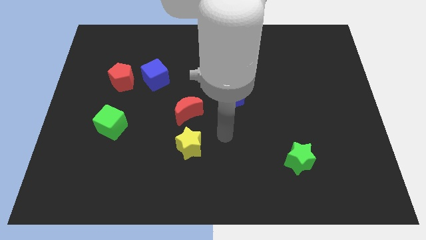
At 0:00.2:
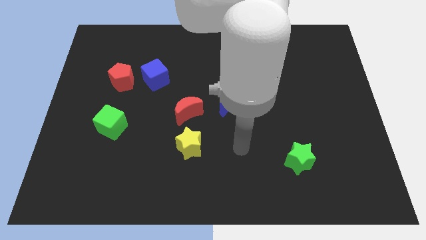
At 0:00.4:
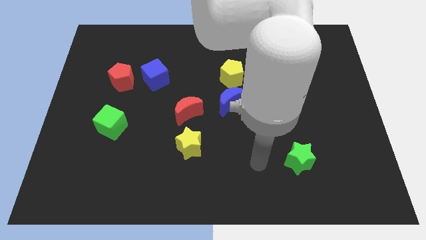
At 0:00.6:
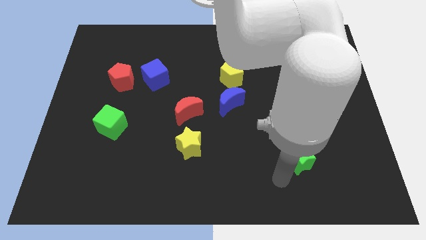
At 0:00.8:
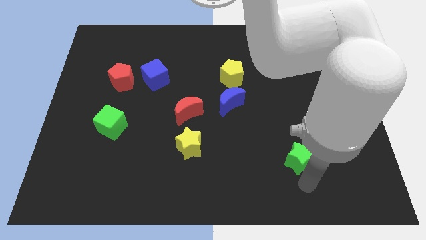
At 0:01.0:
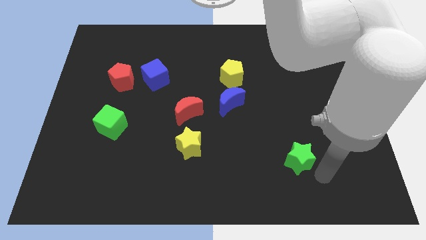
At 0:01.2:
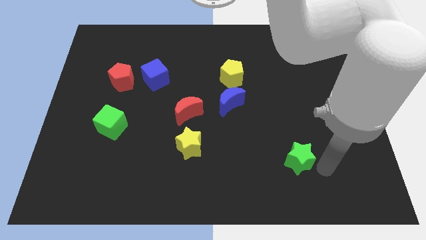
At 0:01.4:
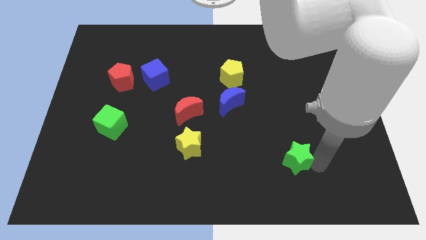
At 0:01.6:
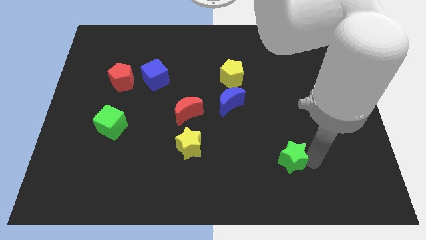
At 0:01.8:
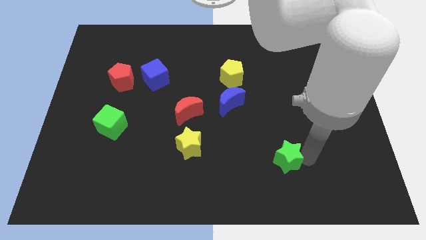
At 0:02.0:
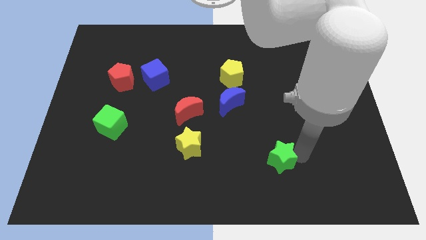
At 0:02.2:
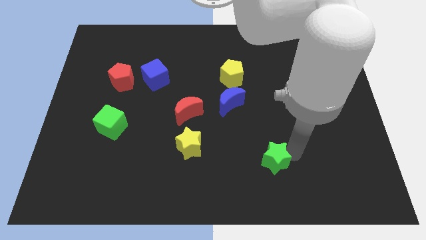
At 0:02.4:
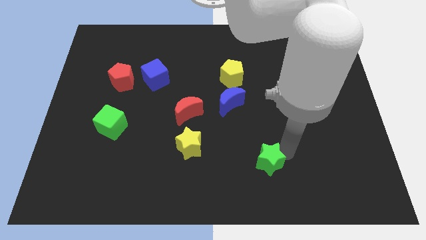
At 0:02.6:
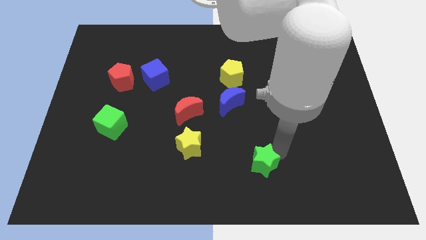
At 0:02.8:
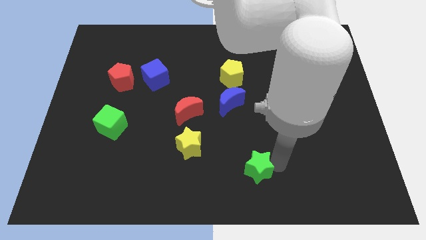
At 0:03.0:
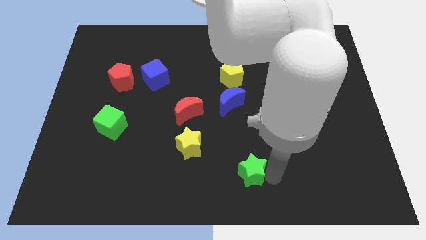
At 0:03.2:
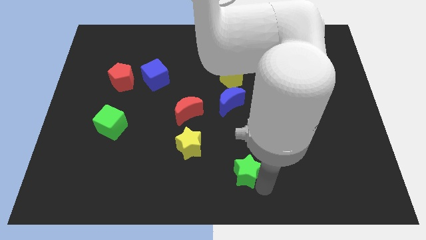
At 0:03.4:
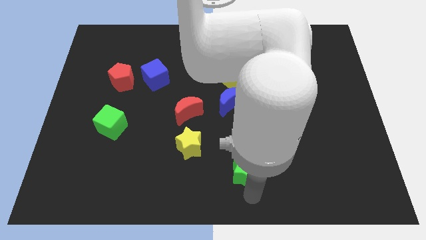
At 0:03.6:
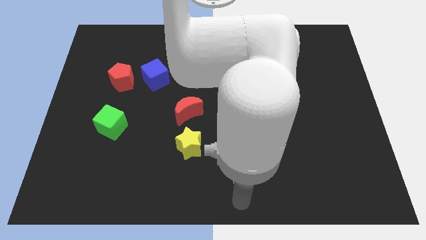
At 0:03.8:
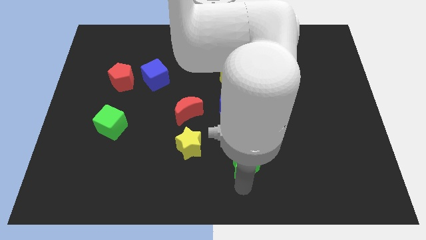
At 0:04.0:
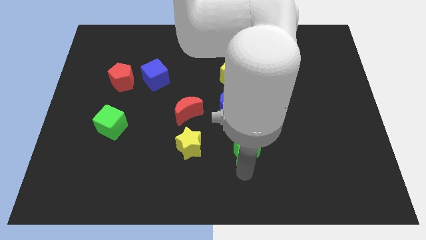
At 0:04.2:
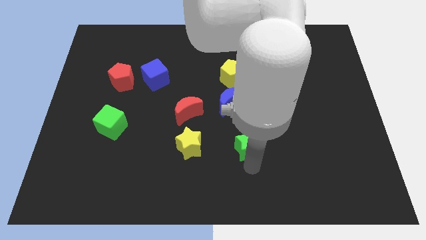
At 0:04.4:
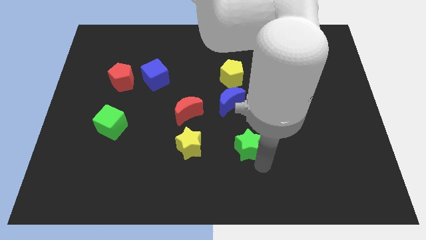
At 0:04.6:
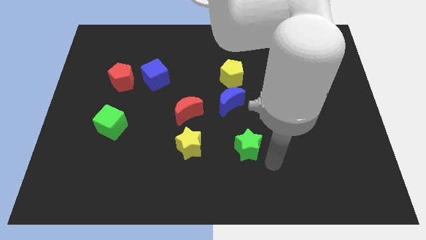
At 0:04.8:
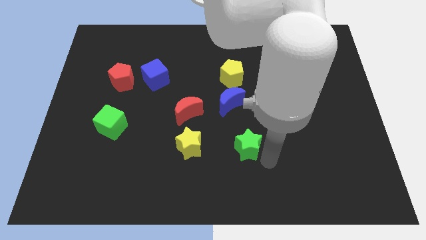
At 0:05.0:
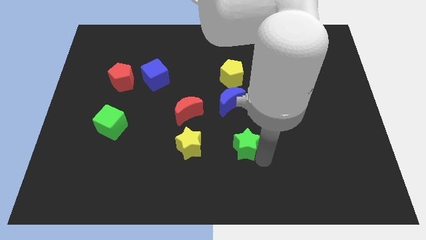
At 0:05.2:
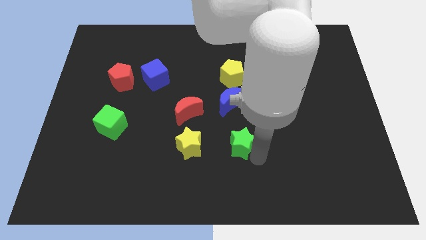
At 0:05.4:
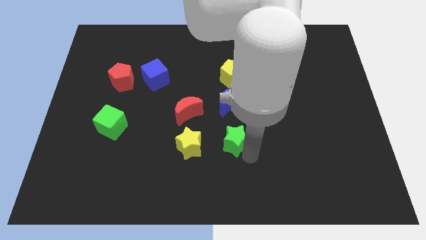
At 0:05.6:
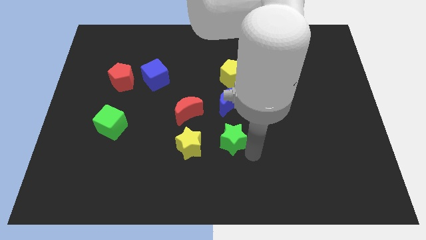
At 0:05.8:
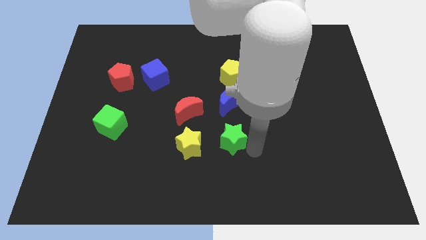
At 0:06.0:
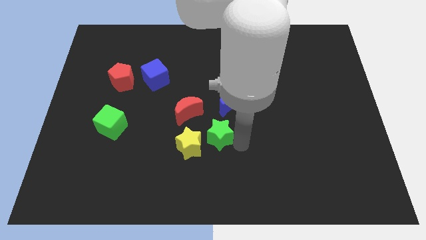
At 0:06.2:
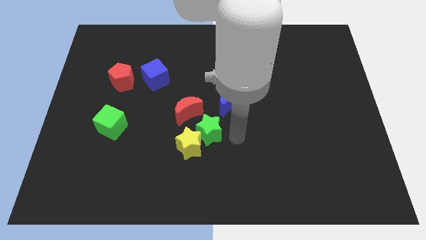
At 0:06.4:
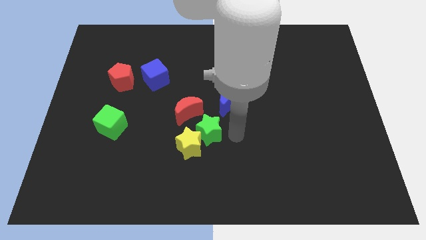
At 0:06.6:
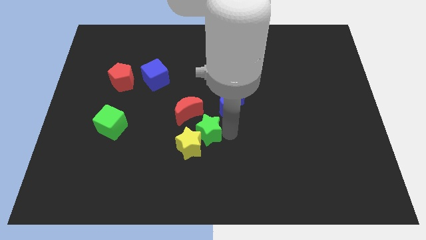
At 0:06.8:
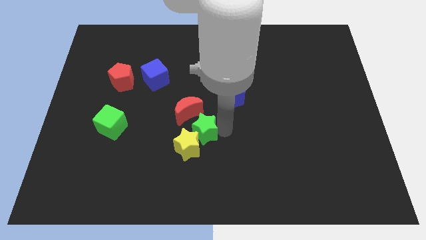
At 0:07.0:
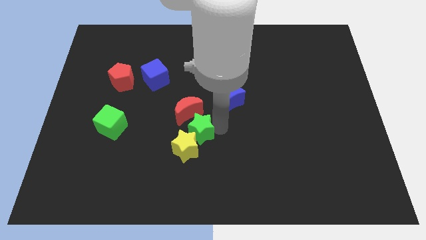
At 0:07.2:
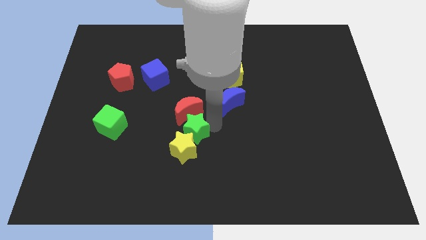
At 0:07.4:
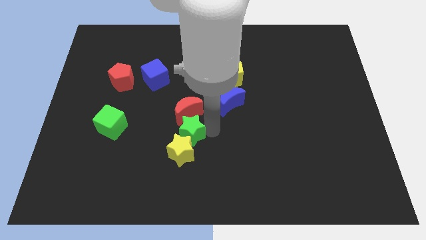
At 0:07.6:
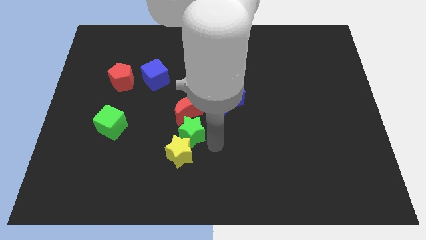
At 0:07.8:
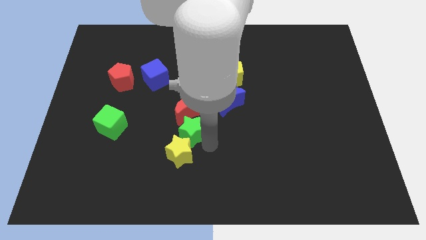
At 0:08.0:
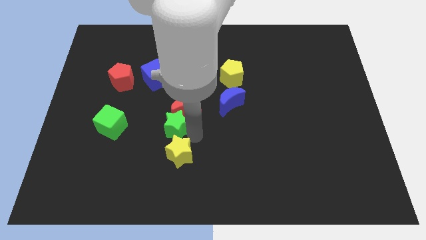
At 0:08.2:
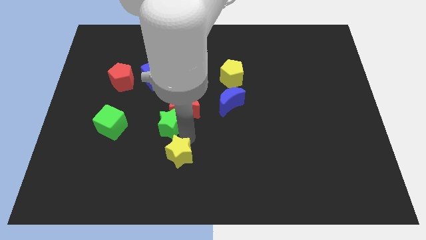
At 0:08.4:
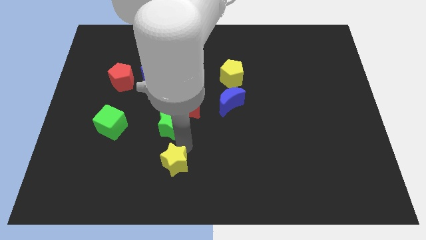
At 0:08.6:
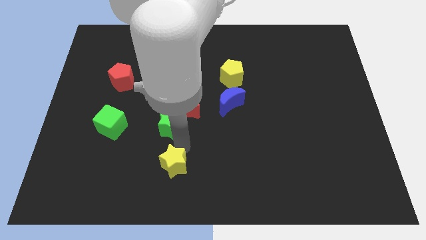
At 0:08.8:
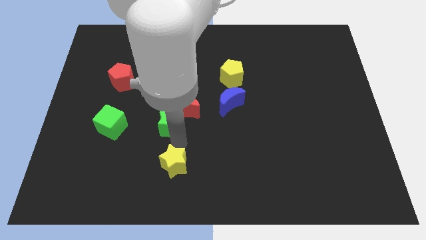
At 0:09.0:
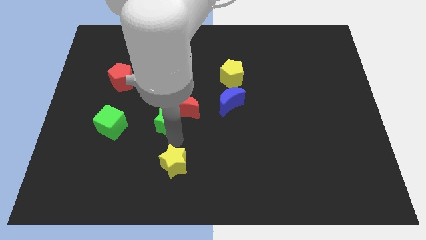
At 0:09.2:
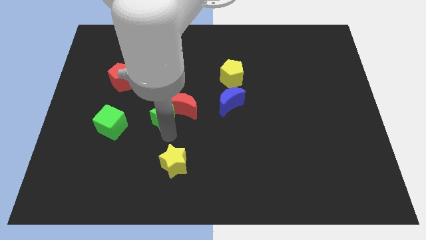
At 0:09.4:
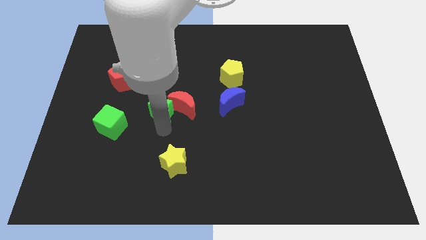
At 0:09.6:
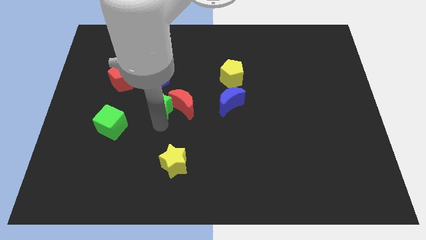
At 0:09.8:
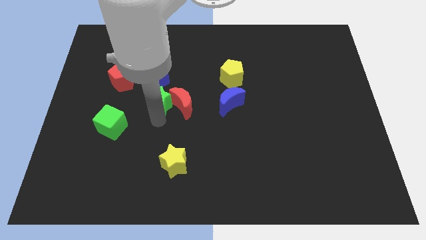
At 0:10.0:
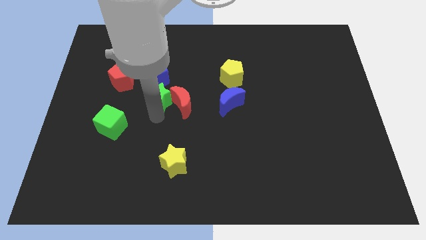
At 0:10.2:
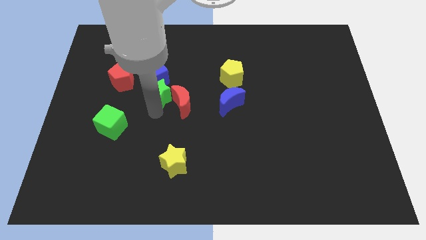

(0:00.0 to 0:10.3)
slide the green star close to the blue cube

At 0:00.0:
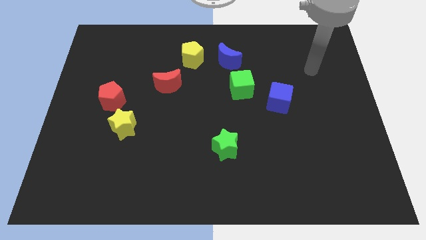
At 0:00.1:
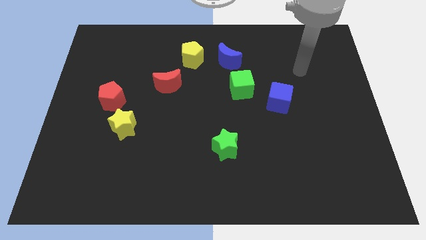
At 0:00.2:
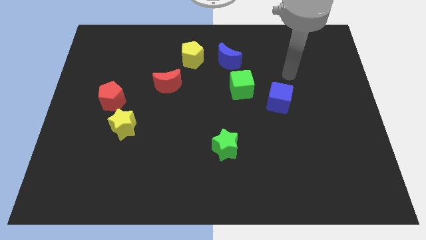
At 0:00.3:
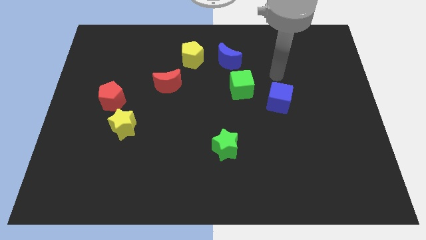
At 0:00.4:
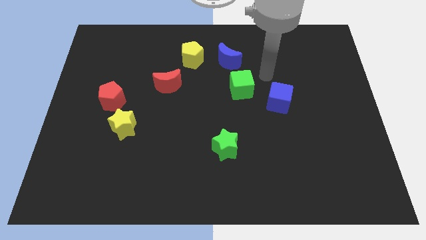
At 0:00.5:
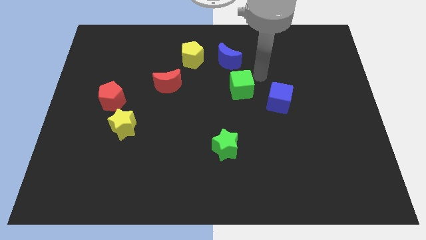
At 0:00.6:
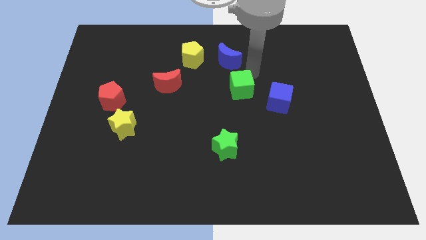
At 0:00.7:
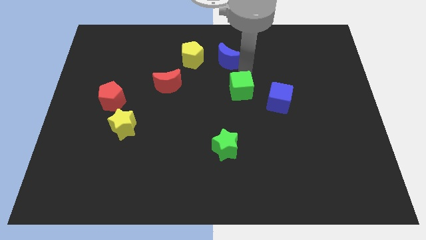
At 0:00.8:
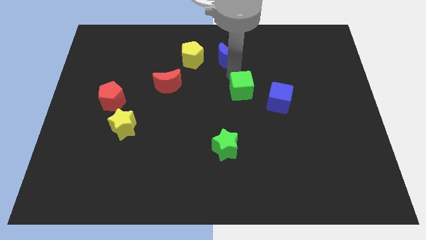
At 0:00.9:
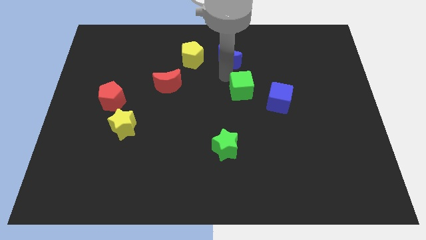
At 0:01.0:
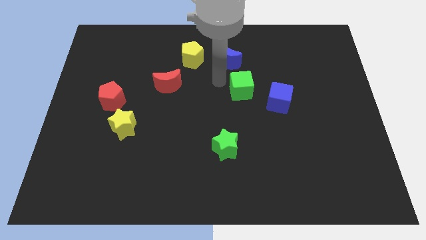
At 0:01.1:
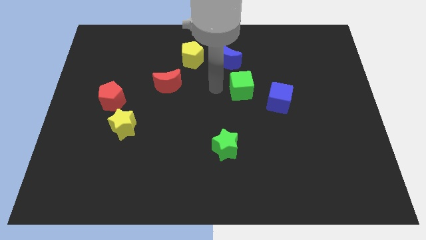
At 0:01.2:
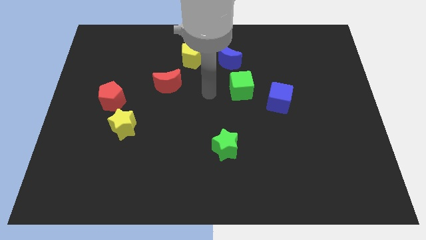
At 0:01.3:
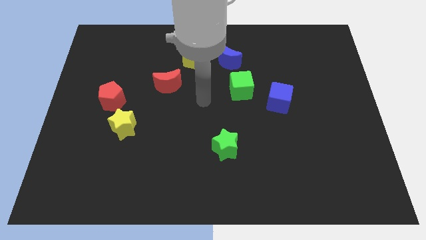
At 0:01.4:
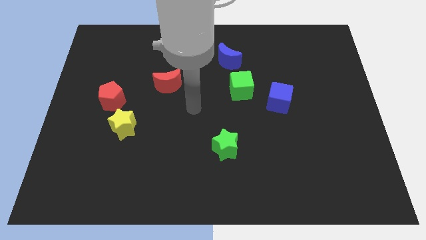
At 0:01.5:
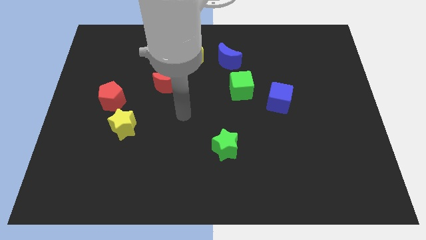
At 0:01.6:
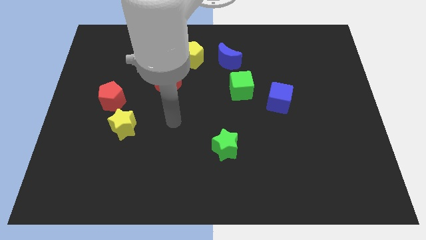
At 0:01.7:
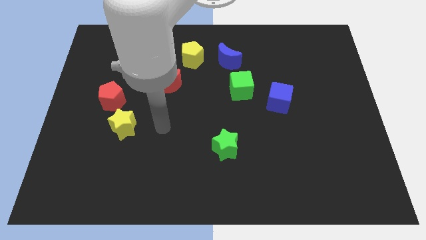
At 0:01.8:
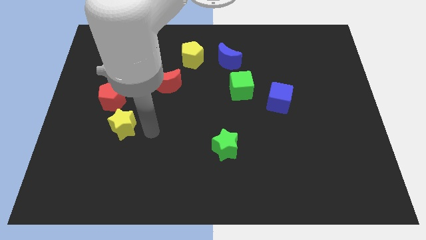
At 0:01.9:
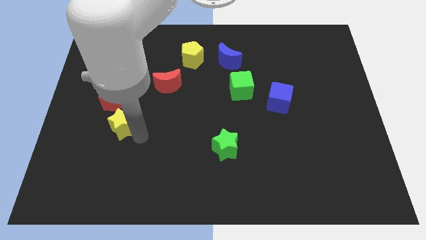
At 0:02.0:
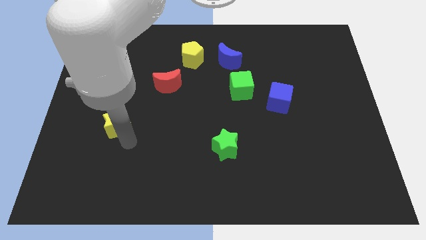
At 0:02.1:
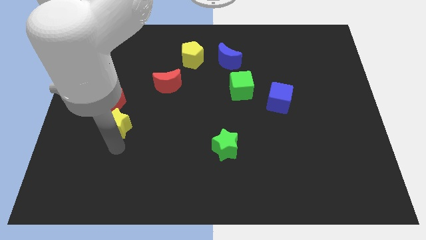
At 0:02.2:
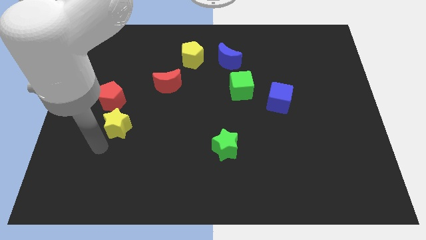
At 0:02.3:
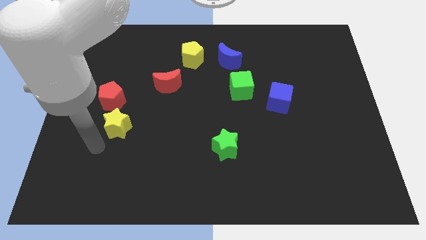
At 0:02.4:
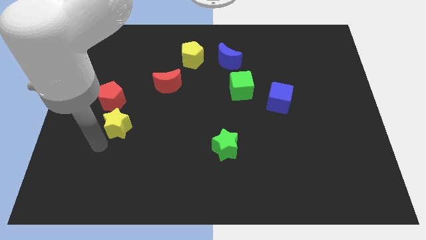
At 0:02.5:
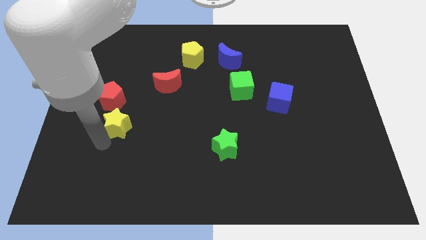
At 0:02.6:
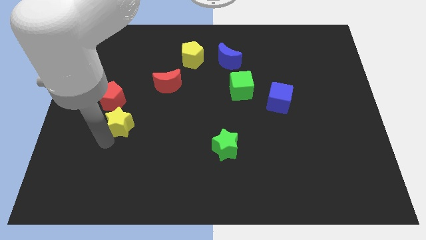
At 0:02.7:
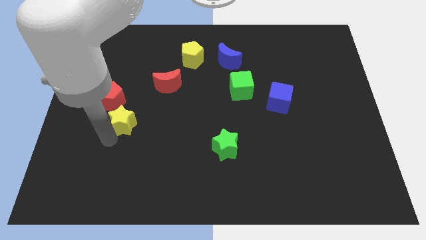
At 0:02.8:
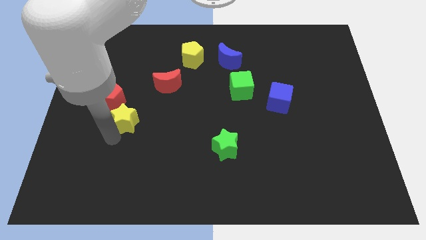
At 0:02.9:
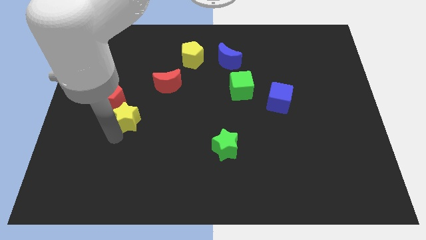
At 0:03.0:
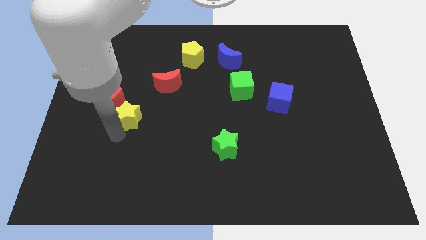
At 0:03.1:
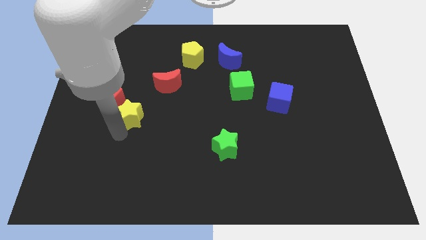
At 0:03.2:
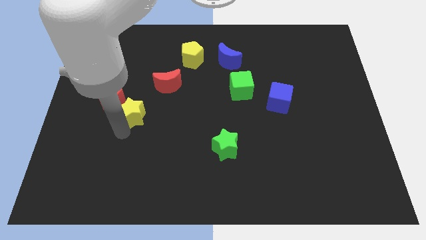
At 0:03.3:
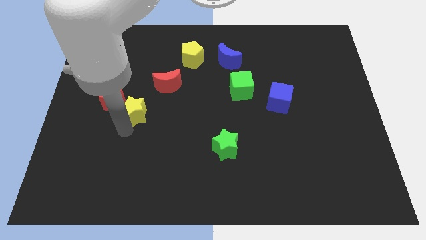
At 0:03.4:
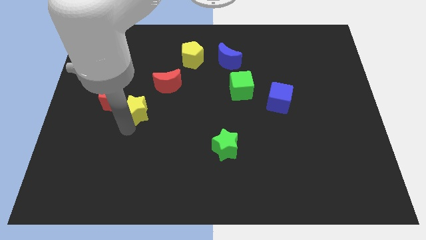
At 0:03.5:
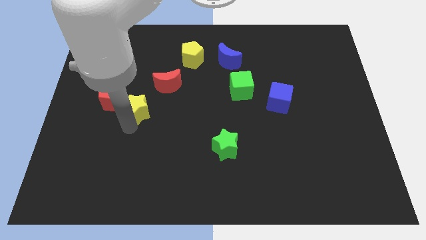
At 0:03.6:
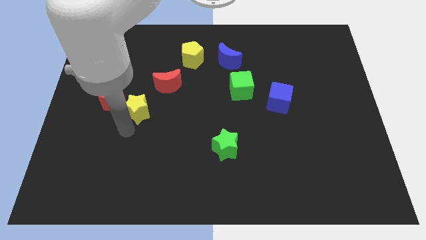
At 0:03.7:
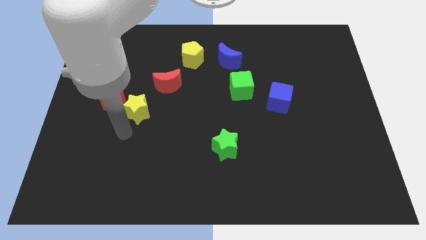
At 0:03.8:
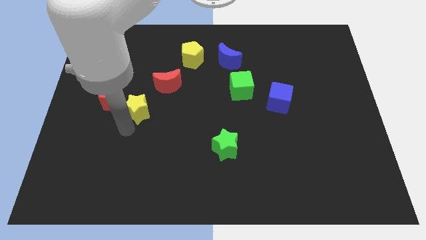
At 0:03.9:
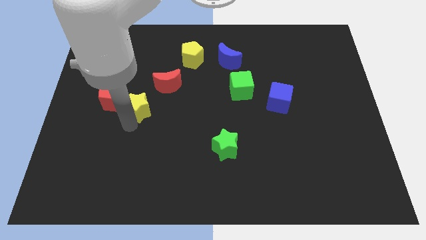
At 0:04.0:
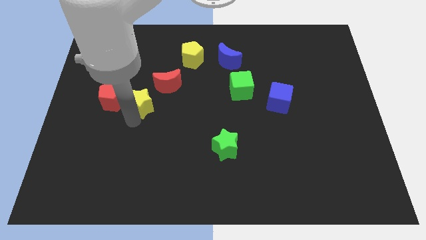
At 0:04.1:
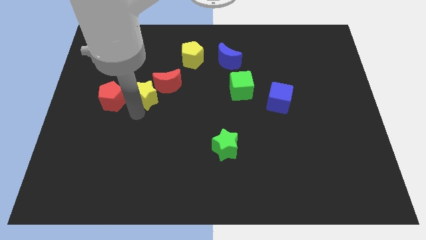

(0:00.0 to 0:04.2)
put the yellow star next to the red moon
